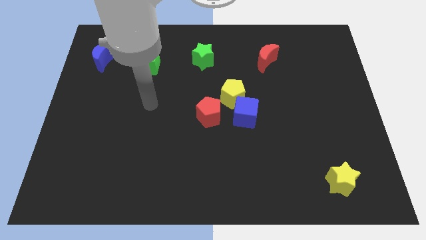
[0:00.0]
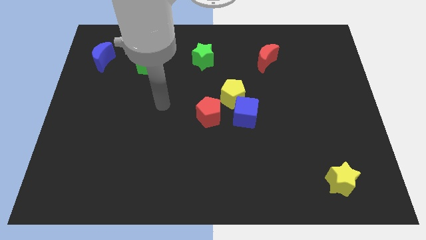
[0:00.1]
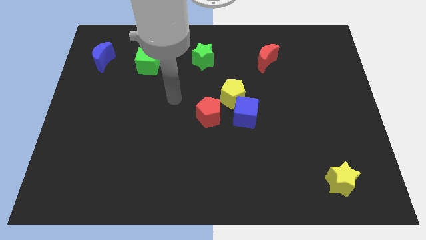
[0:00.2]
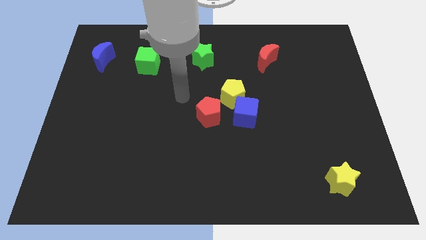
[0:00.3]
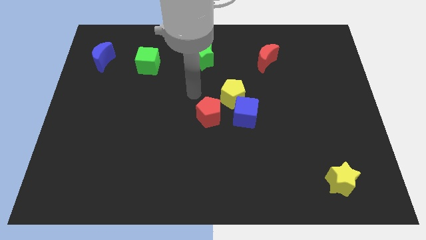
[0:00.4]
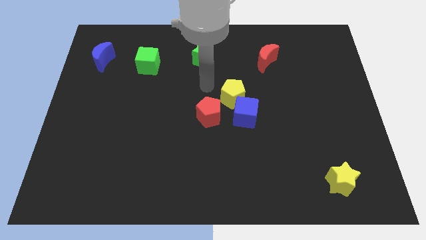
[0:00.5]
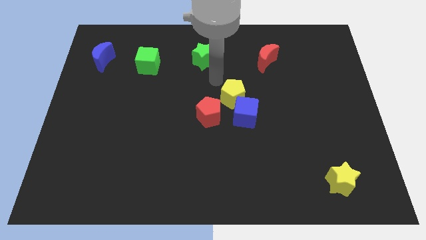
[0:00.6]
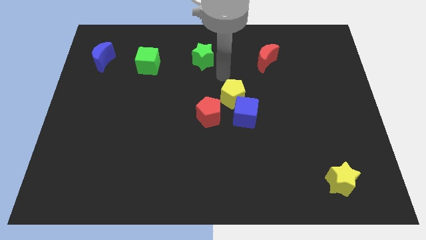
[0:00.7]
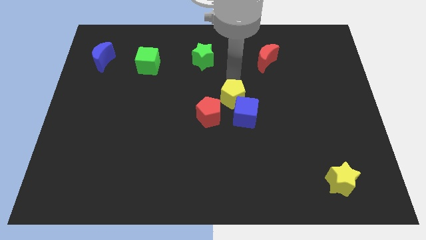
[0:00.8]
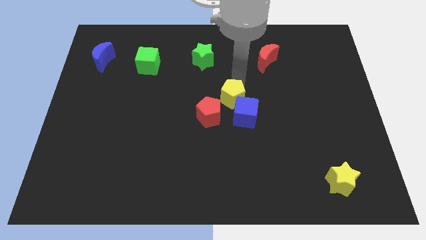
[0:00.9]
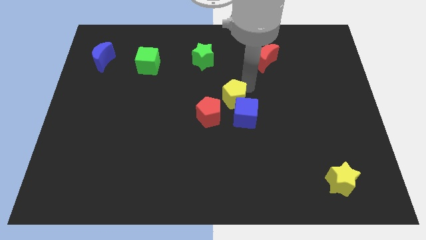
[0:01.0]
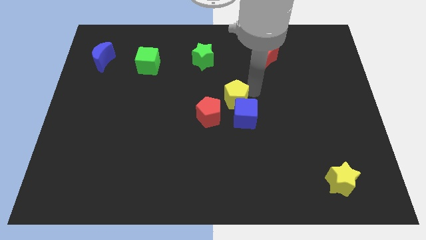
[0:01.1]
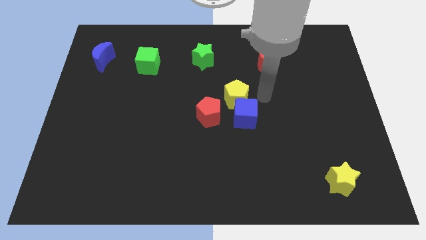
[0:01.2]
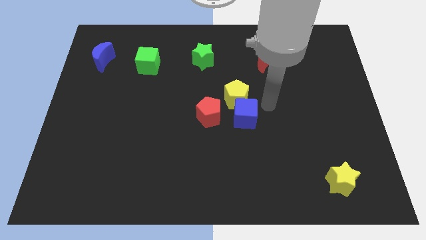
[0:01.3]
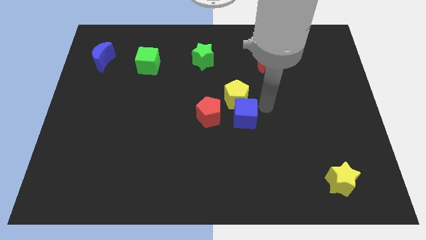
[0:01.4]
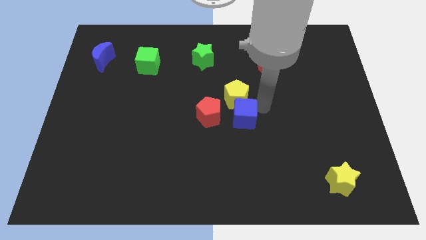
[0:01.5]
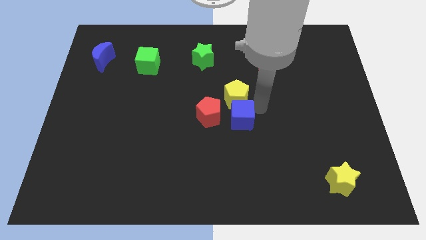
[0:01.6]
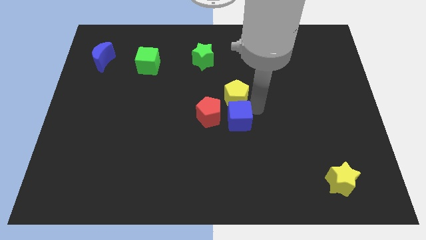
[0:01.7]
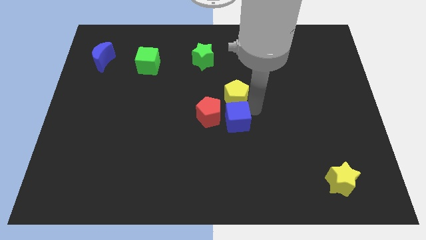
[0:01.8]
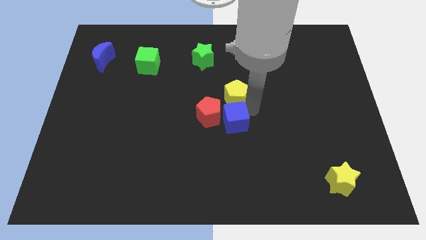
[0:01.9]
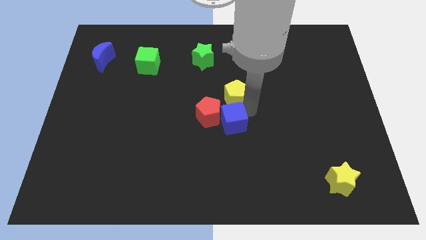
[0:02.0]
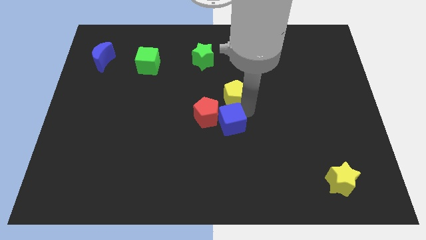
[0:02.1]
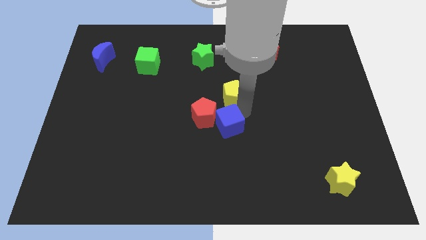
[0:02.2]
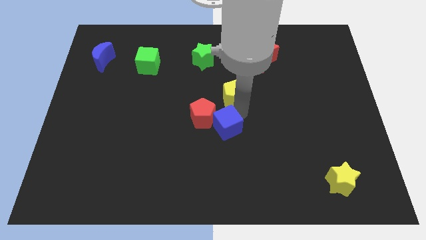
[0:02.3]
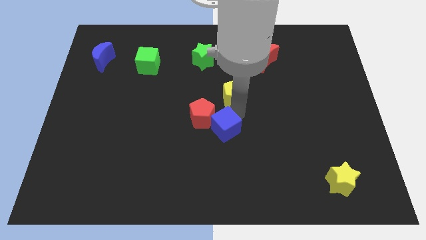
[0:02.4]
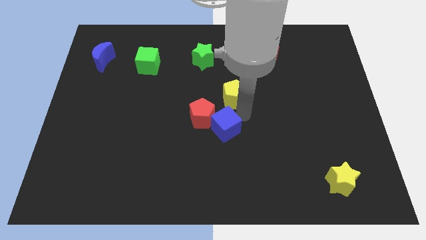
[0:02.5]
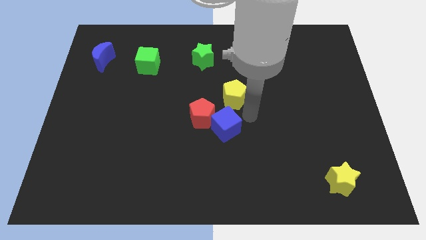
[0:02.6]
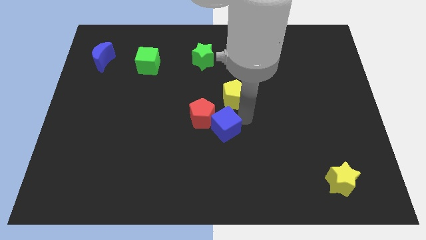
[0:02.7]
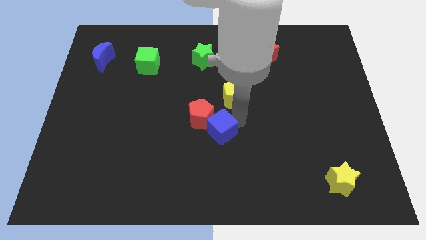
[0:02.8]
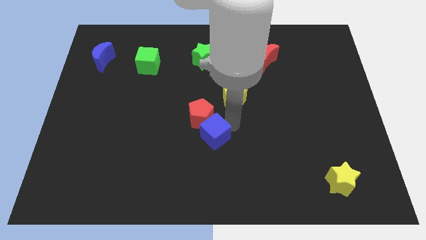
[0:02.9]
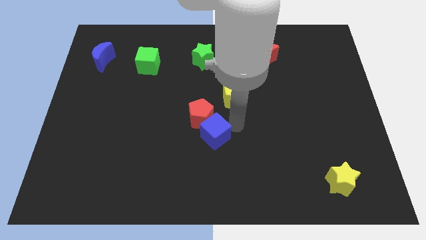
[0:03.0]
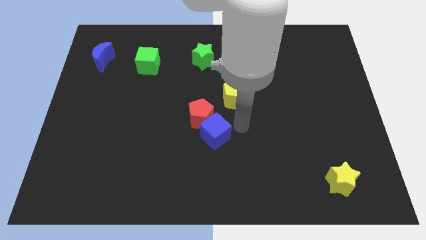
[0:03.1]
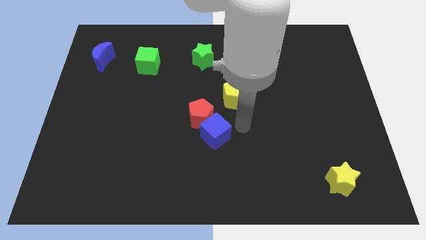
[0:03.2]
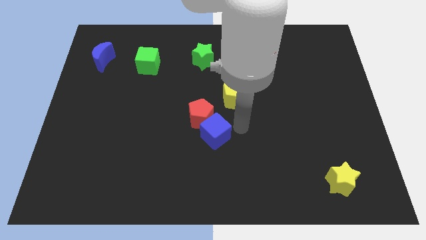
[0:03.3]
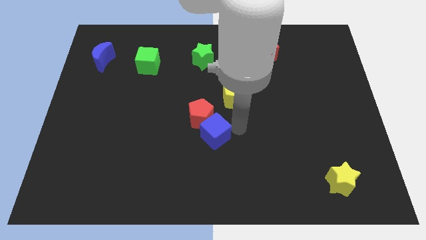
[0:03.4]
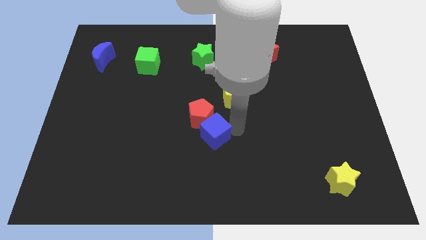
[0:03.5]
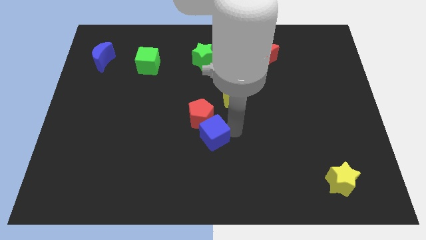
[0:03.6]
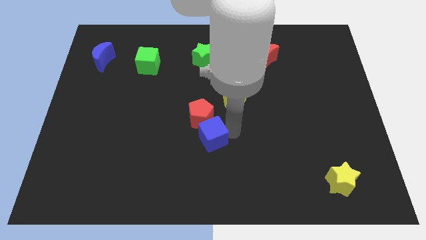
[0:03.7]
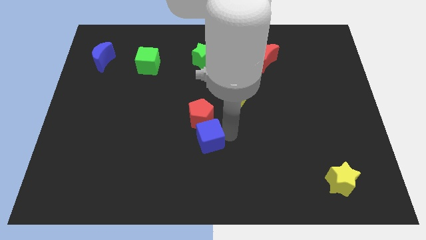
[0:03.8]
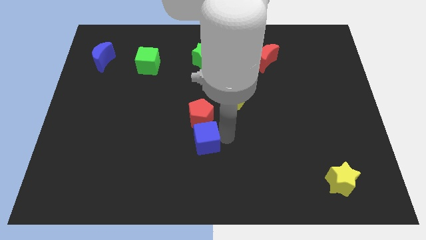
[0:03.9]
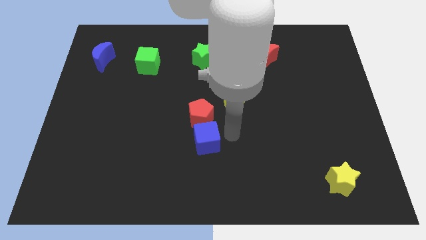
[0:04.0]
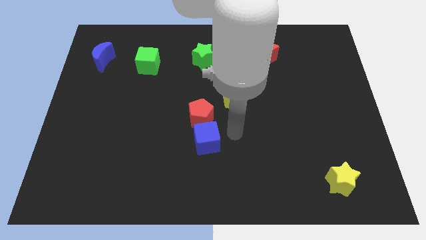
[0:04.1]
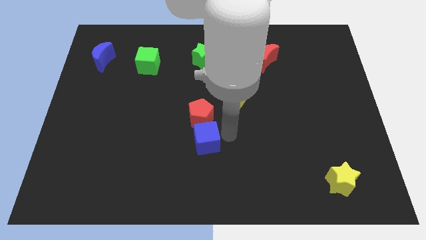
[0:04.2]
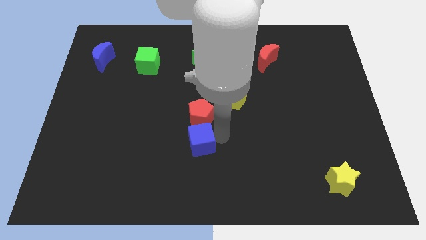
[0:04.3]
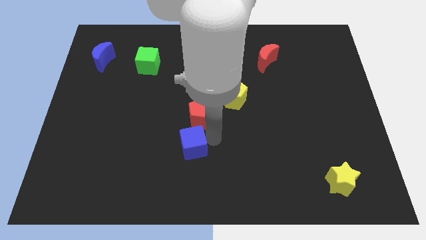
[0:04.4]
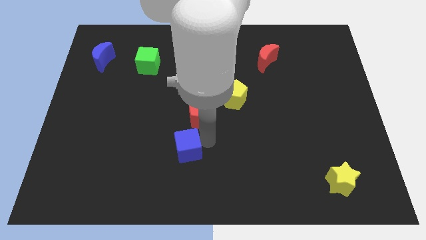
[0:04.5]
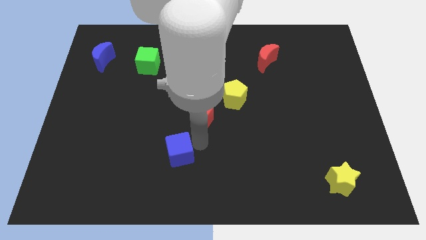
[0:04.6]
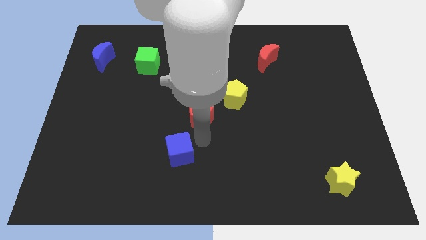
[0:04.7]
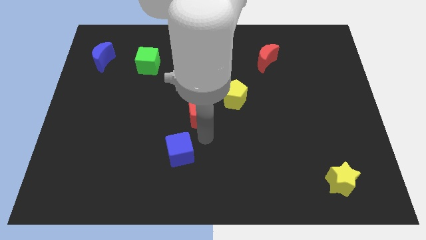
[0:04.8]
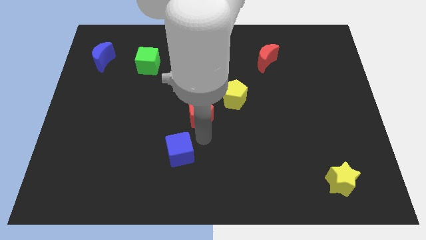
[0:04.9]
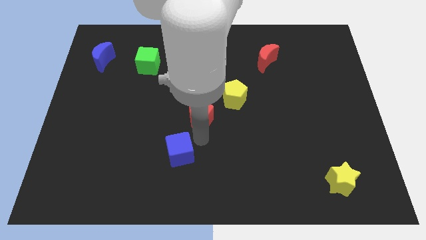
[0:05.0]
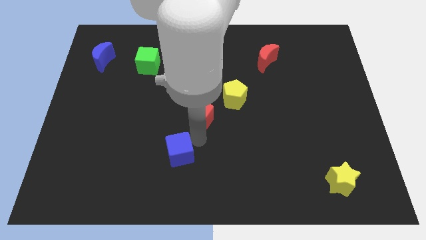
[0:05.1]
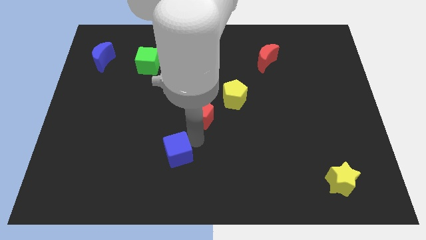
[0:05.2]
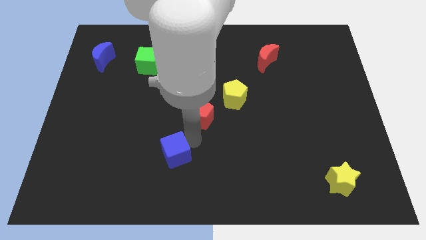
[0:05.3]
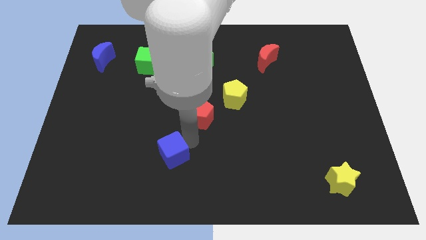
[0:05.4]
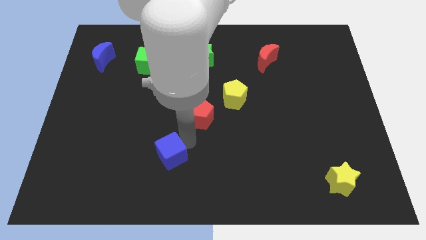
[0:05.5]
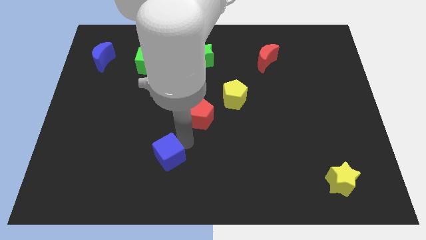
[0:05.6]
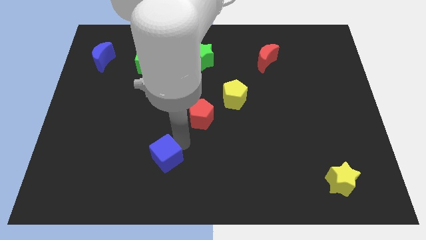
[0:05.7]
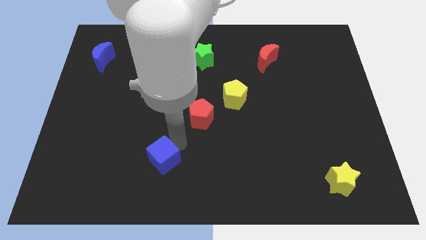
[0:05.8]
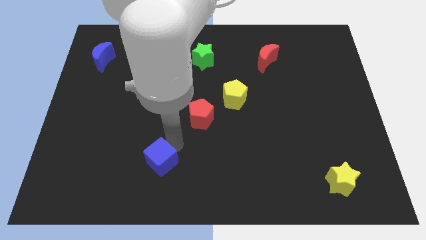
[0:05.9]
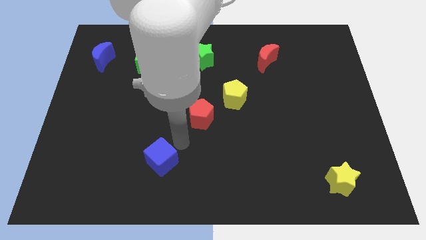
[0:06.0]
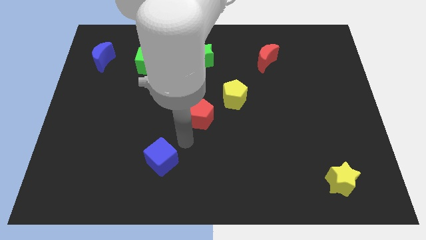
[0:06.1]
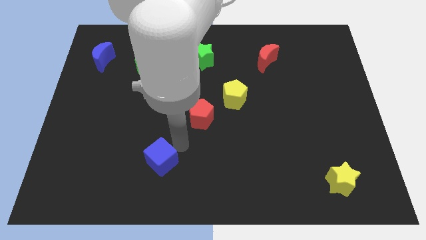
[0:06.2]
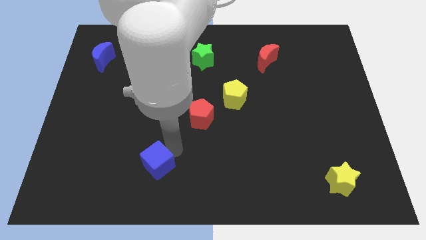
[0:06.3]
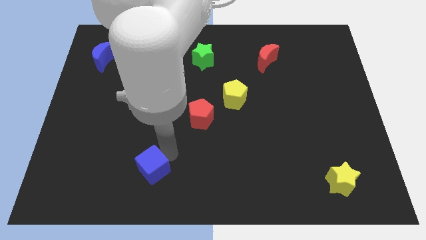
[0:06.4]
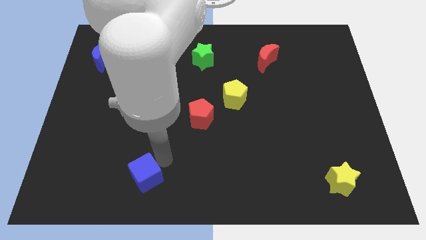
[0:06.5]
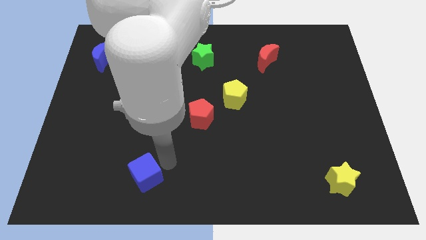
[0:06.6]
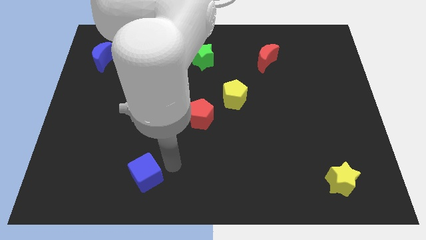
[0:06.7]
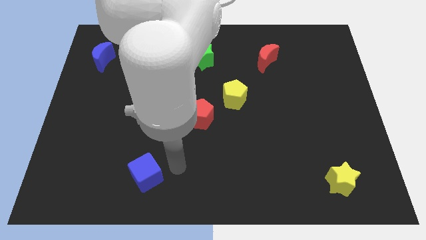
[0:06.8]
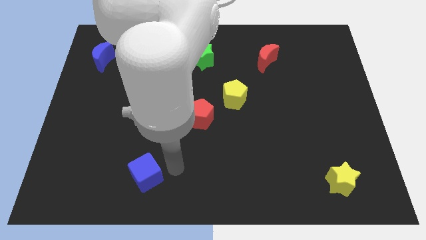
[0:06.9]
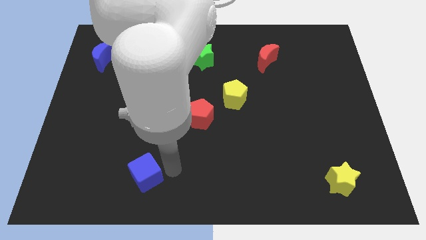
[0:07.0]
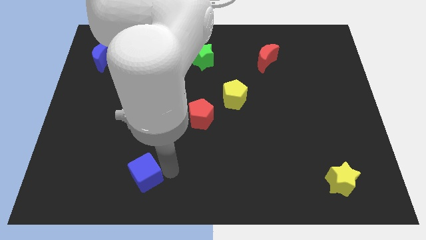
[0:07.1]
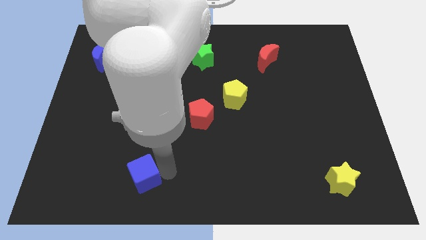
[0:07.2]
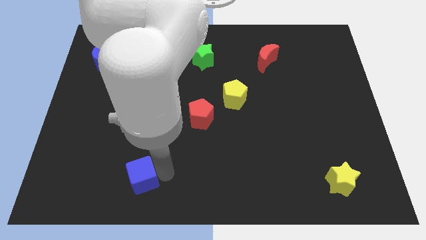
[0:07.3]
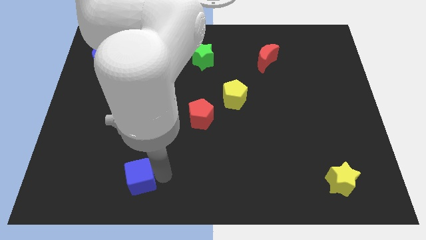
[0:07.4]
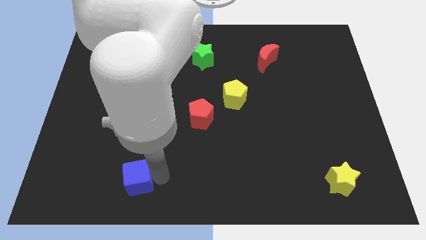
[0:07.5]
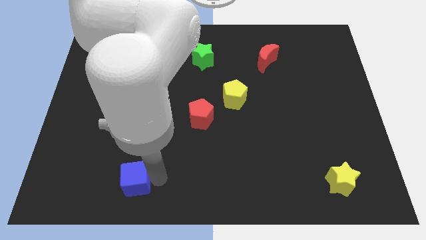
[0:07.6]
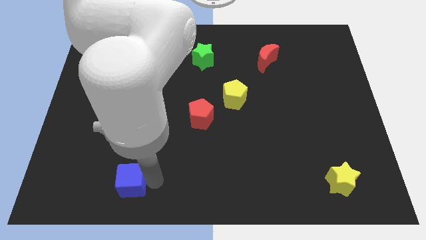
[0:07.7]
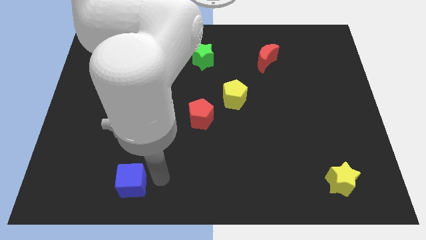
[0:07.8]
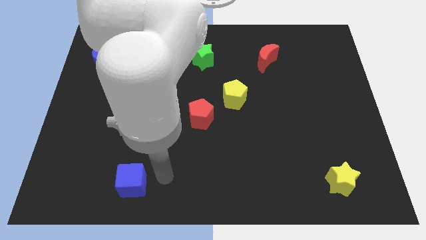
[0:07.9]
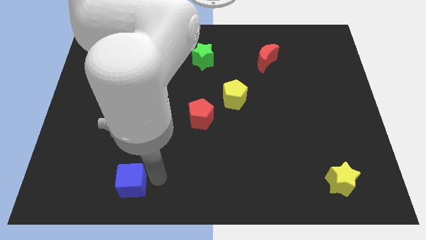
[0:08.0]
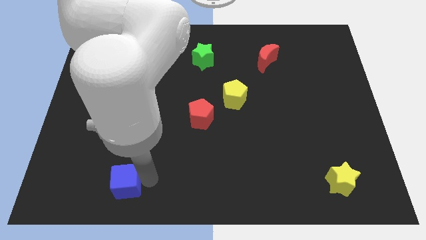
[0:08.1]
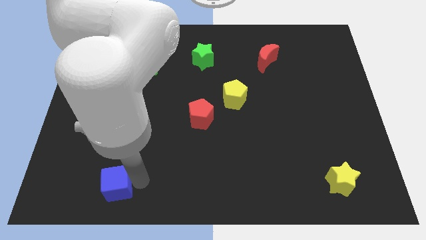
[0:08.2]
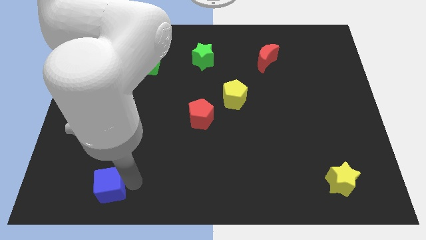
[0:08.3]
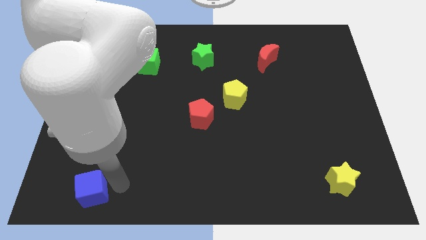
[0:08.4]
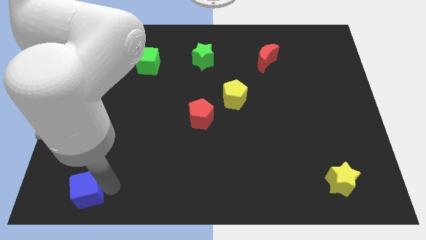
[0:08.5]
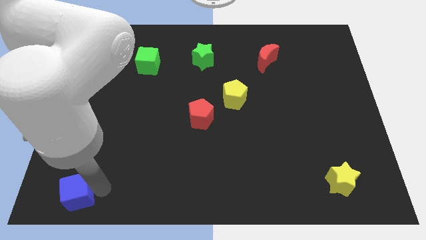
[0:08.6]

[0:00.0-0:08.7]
slide the blue cube to the bottom left of the board
